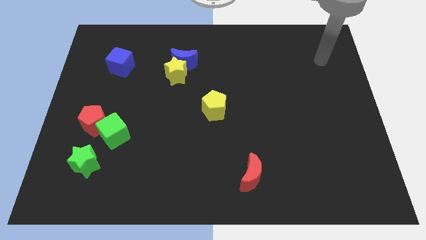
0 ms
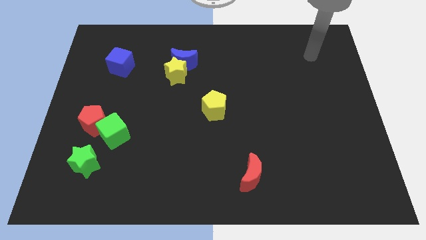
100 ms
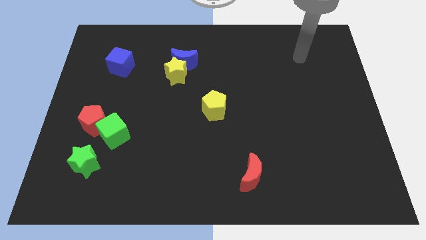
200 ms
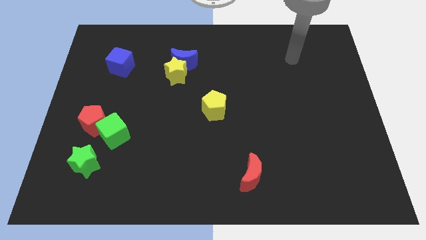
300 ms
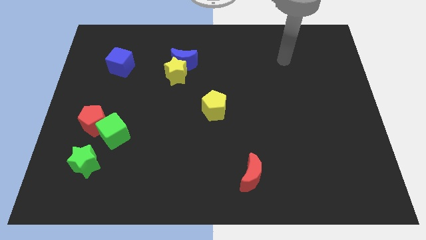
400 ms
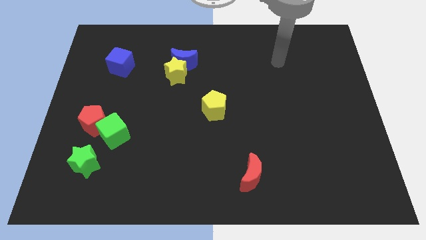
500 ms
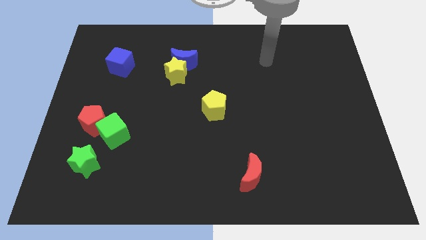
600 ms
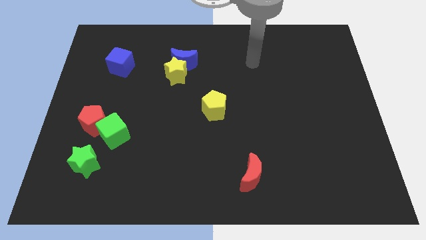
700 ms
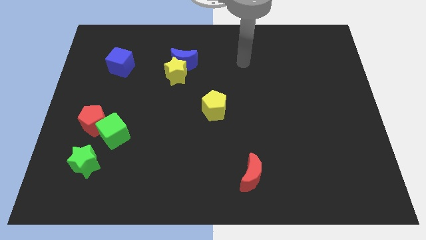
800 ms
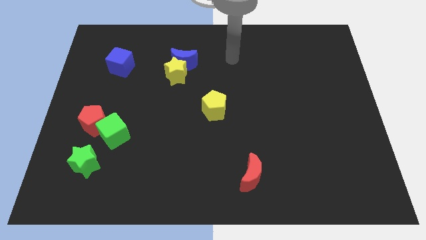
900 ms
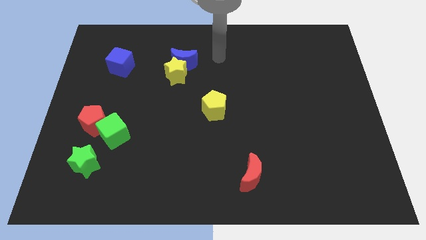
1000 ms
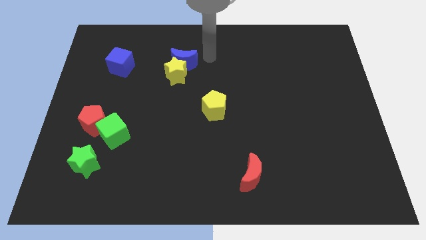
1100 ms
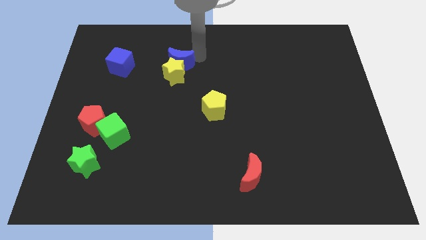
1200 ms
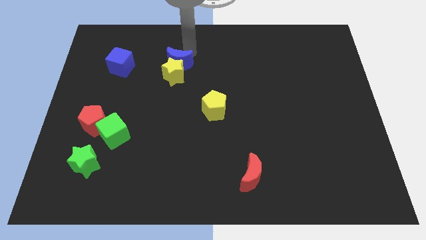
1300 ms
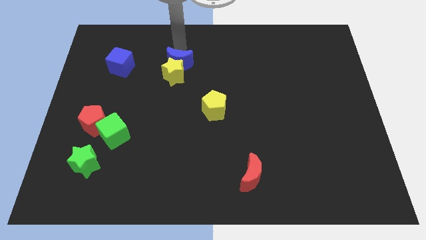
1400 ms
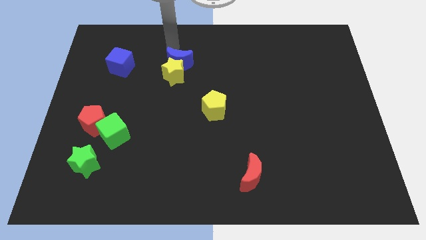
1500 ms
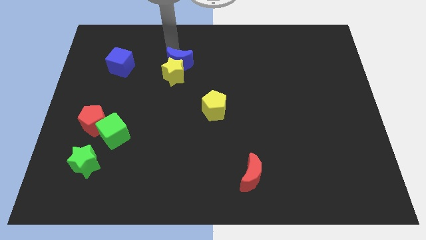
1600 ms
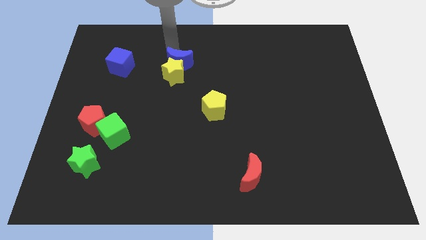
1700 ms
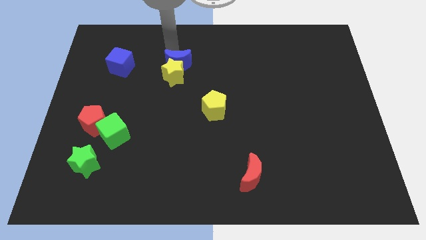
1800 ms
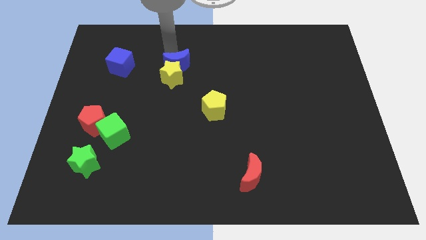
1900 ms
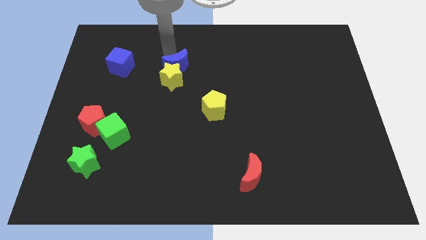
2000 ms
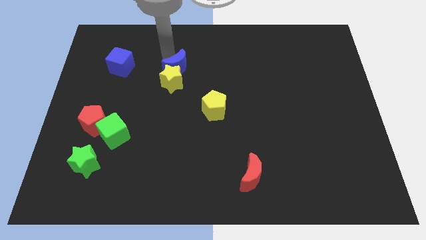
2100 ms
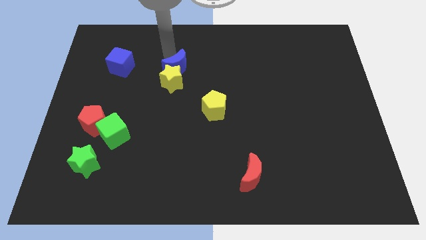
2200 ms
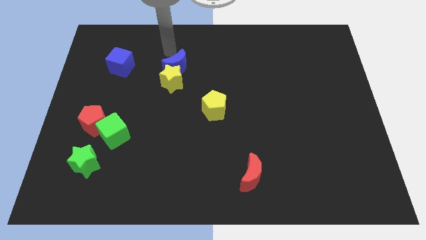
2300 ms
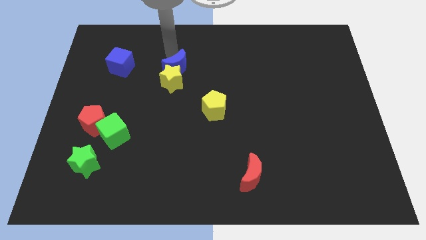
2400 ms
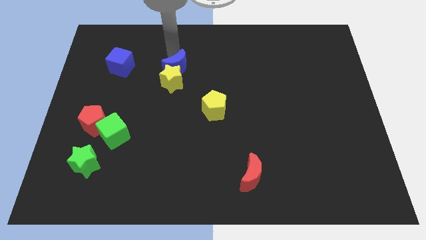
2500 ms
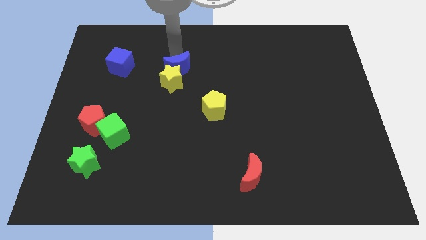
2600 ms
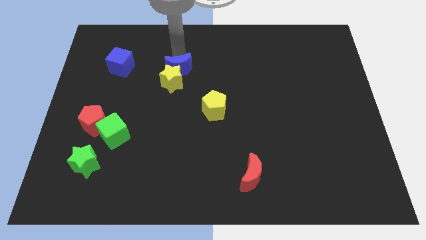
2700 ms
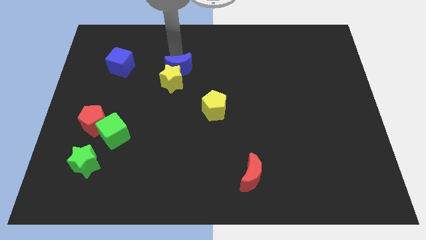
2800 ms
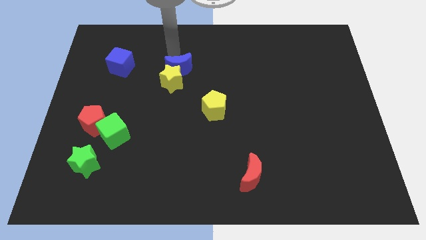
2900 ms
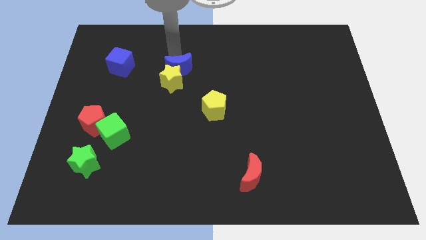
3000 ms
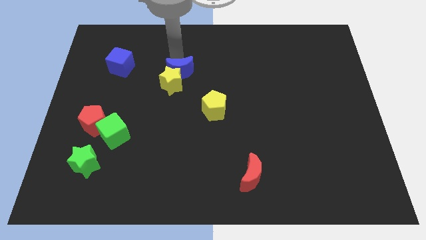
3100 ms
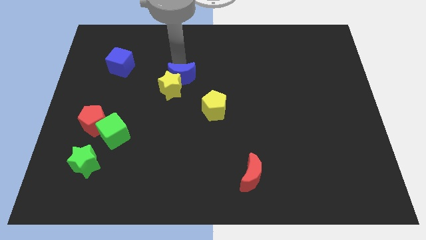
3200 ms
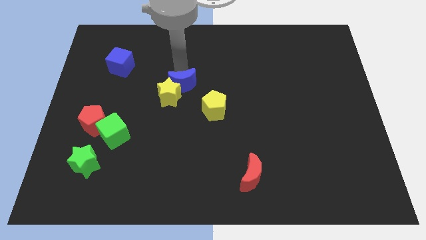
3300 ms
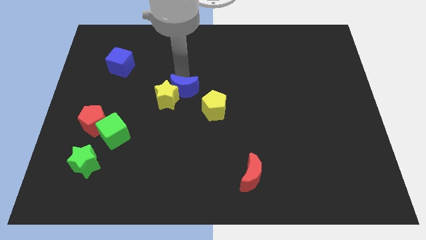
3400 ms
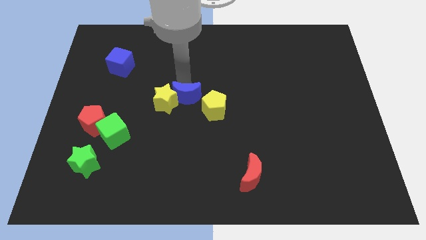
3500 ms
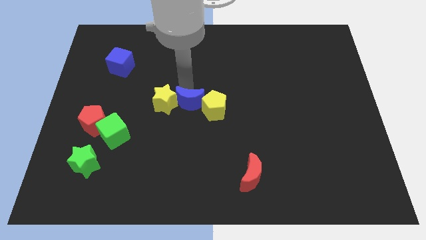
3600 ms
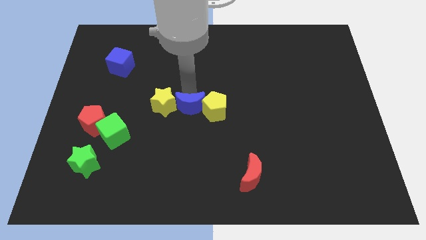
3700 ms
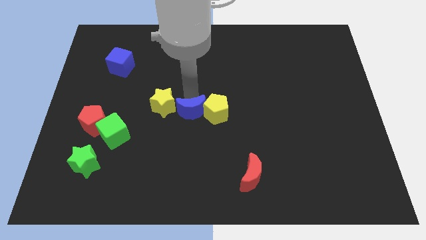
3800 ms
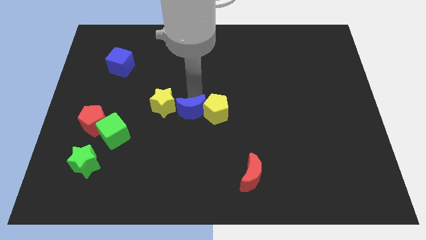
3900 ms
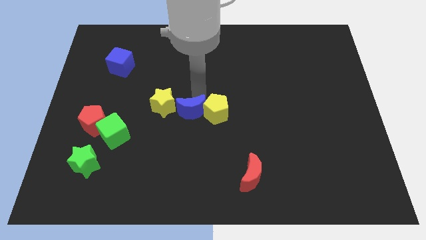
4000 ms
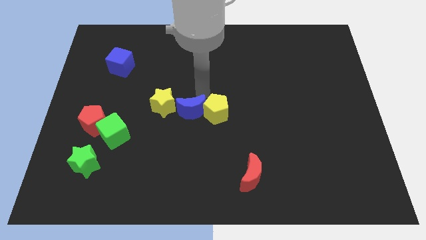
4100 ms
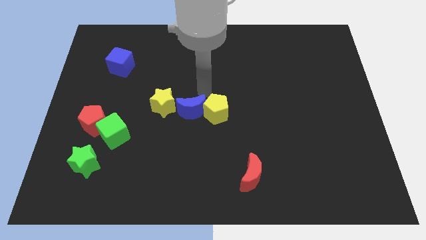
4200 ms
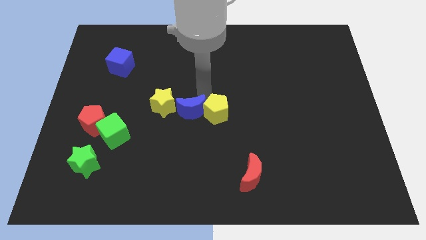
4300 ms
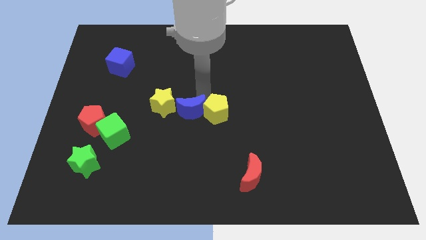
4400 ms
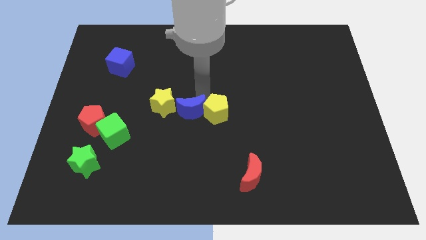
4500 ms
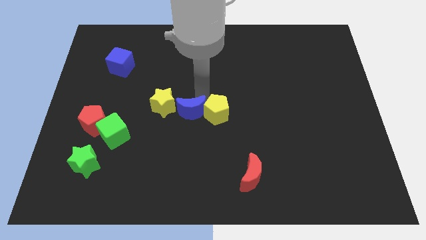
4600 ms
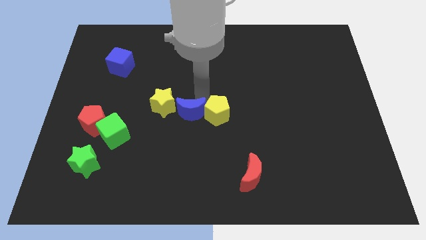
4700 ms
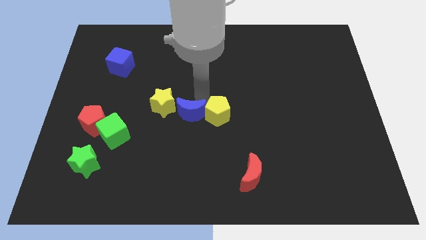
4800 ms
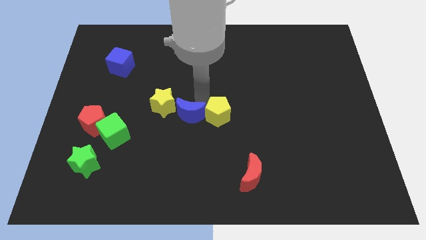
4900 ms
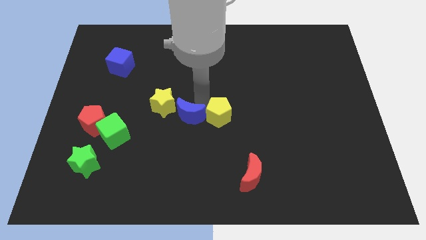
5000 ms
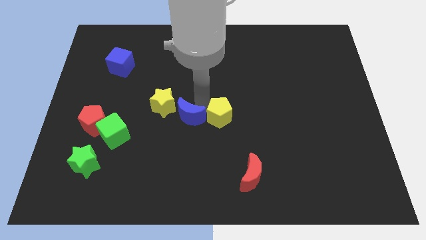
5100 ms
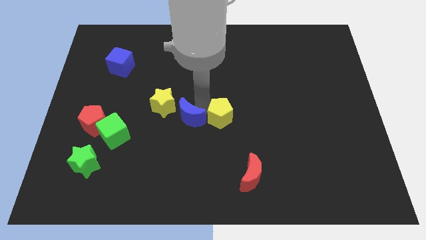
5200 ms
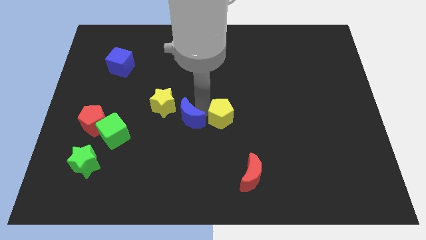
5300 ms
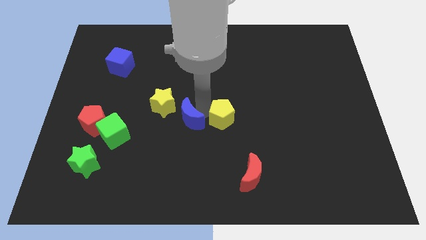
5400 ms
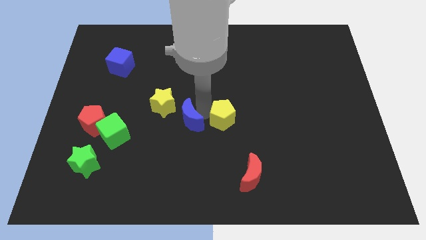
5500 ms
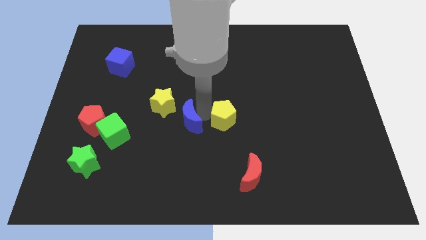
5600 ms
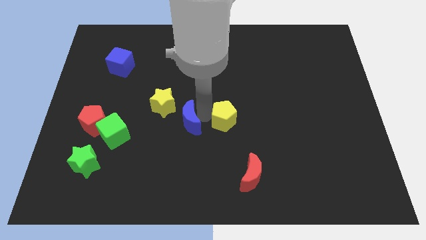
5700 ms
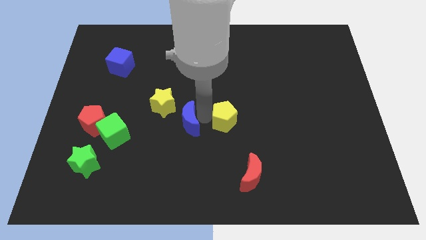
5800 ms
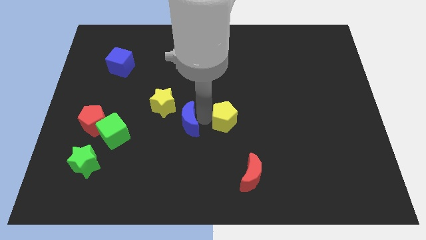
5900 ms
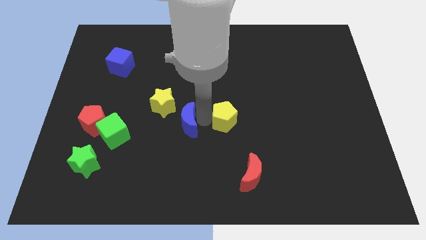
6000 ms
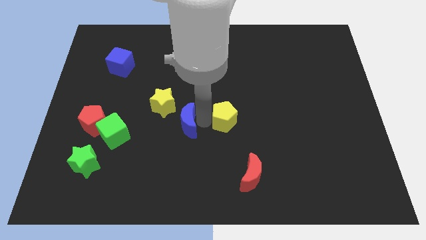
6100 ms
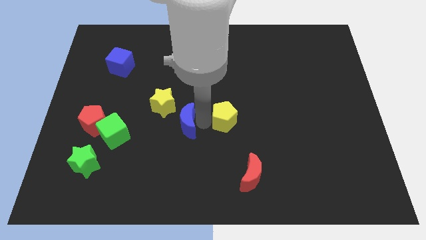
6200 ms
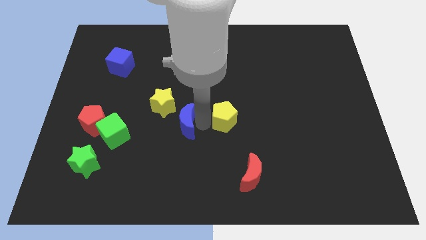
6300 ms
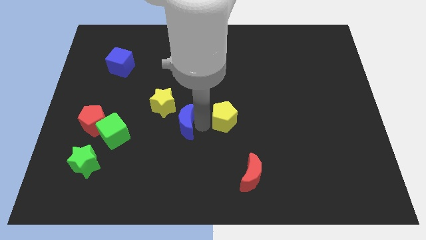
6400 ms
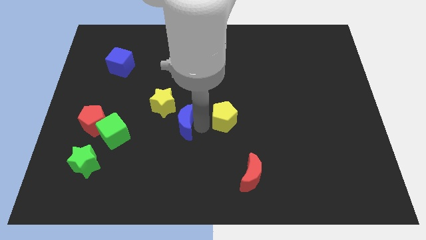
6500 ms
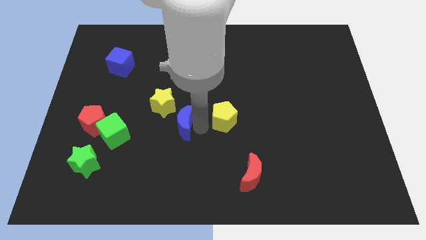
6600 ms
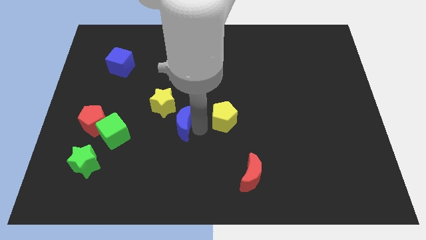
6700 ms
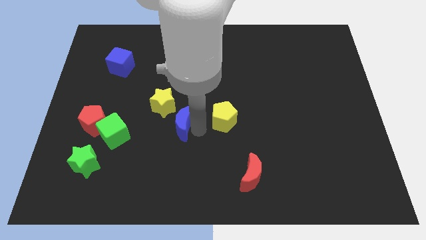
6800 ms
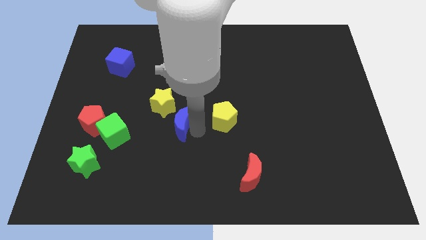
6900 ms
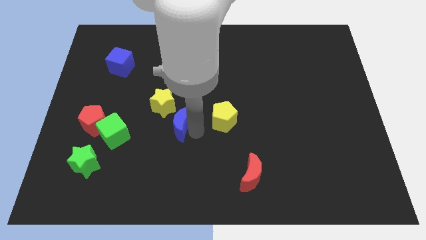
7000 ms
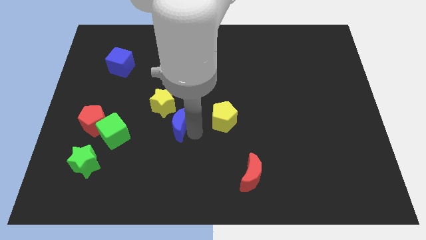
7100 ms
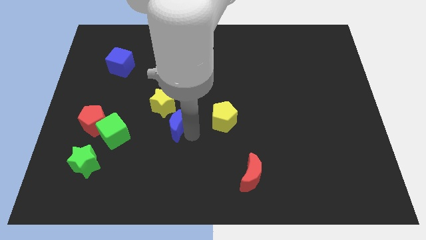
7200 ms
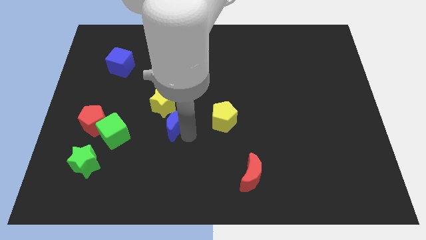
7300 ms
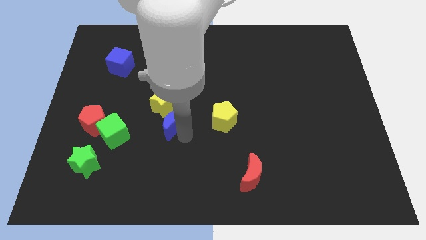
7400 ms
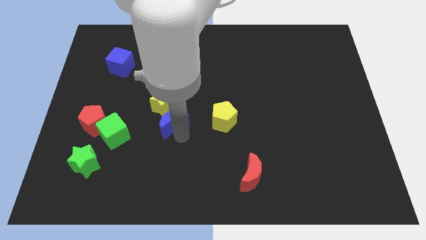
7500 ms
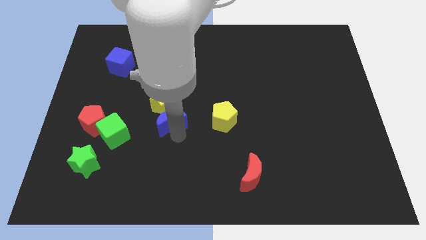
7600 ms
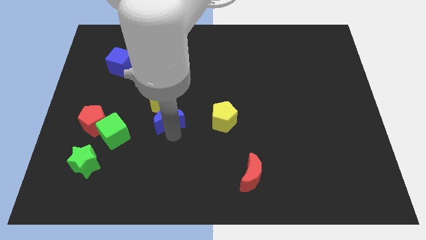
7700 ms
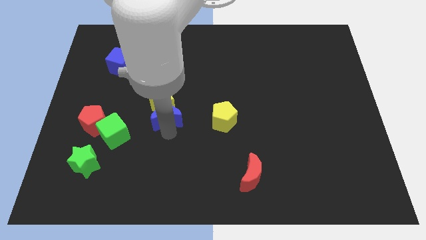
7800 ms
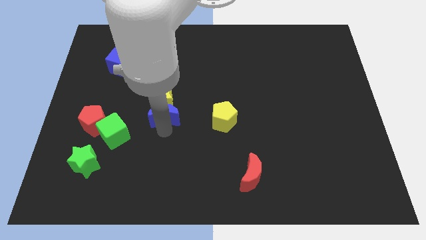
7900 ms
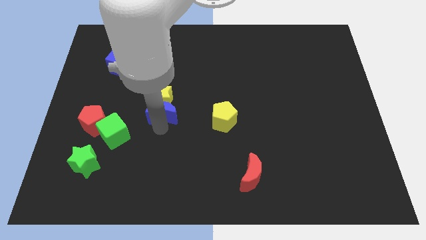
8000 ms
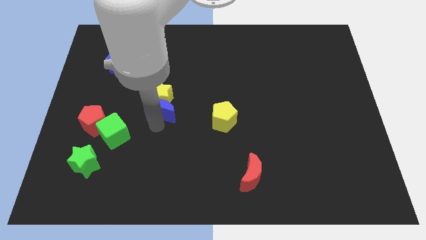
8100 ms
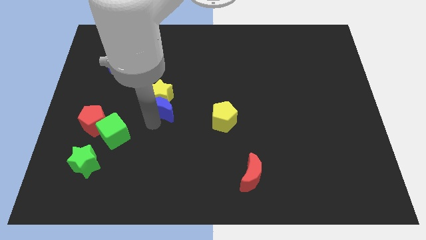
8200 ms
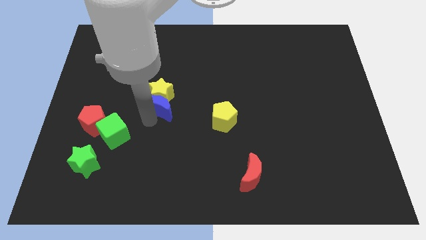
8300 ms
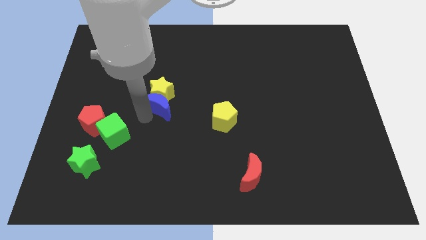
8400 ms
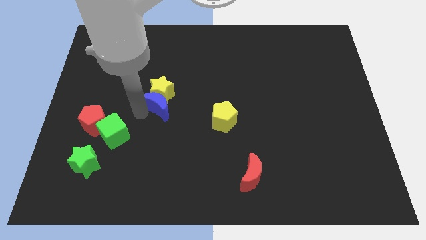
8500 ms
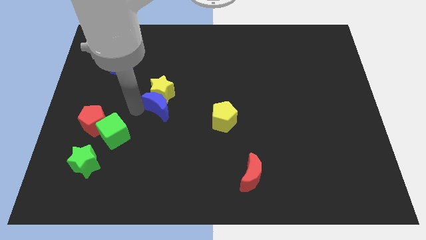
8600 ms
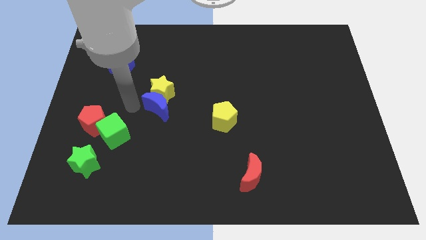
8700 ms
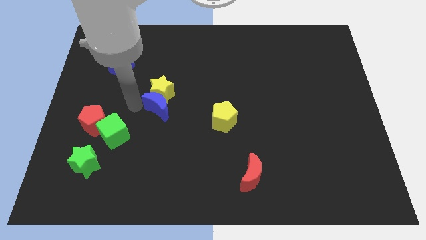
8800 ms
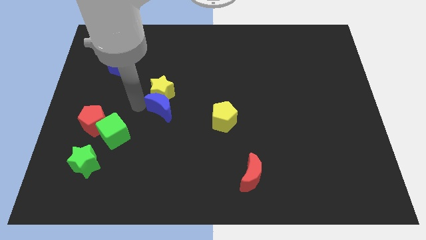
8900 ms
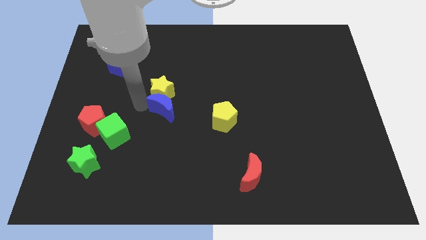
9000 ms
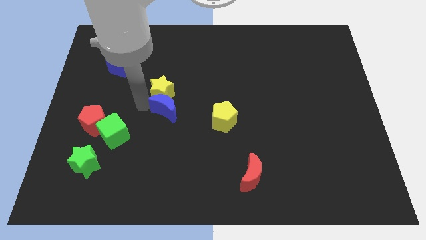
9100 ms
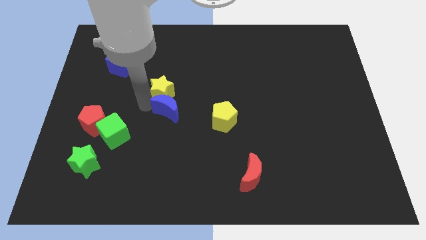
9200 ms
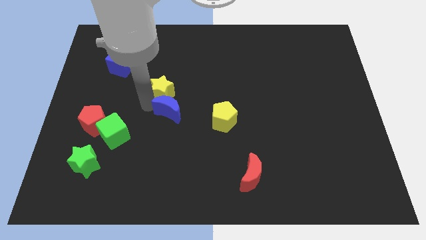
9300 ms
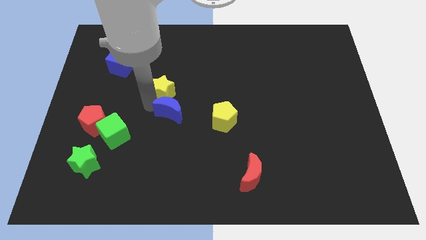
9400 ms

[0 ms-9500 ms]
put the blue moon diagonally down and to the right of the yellow star
